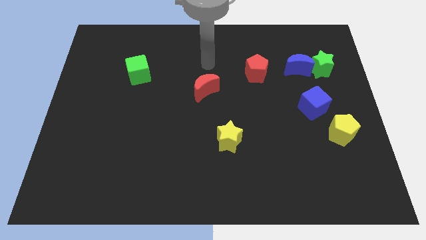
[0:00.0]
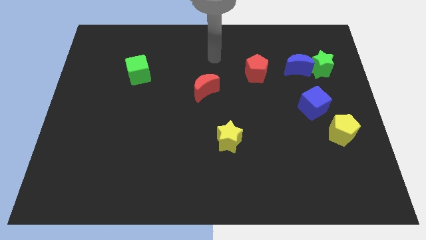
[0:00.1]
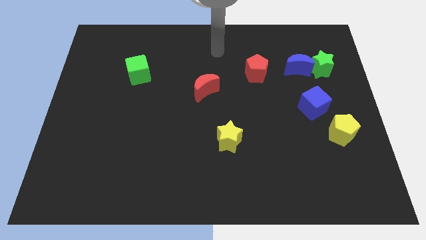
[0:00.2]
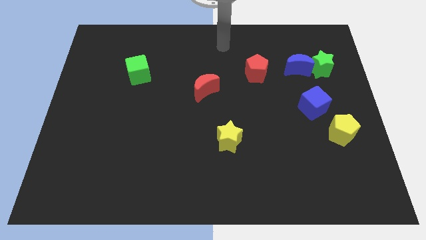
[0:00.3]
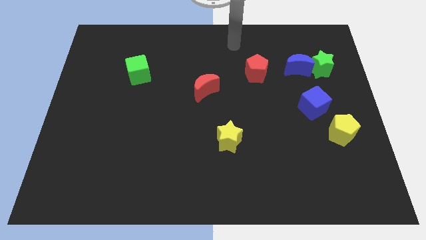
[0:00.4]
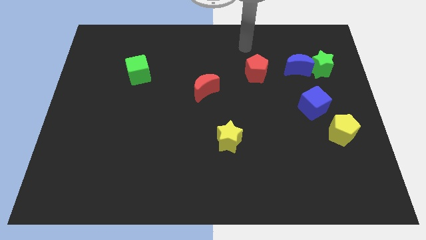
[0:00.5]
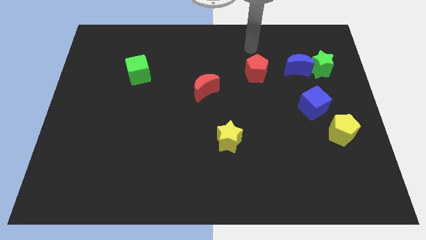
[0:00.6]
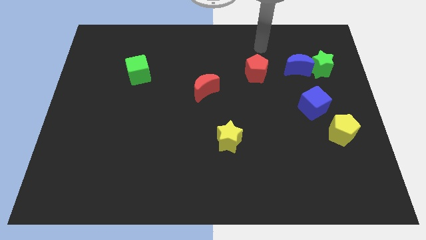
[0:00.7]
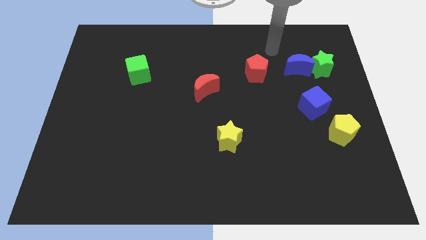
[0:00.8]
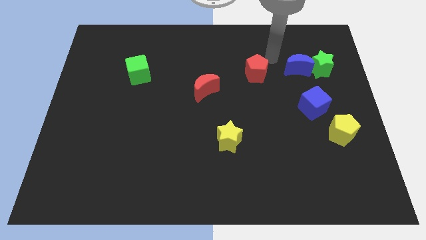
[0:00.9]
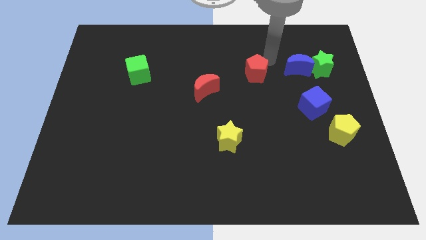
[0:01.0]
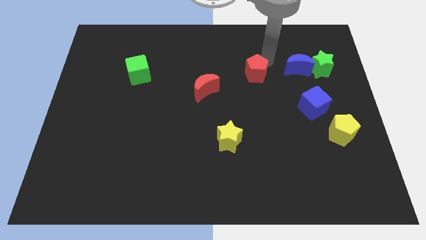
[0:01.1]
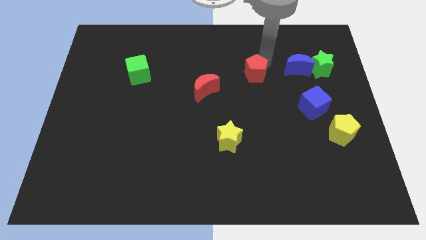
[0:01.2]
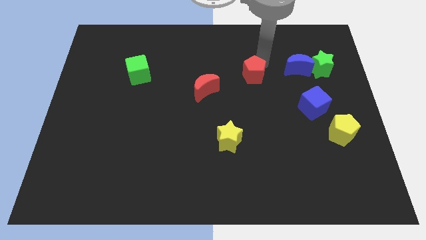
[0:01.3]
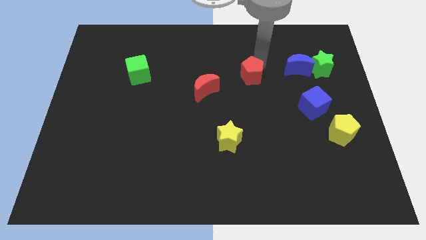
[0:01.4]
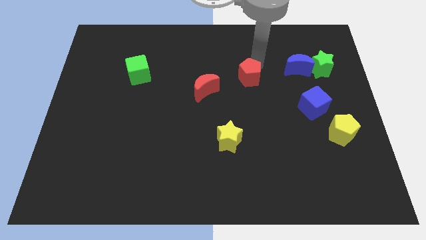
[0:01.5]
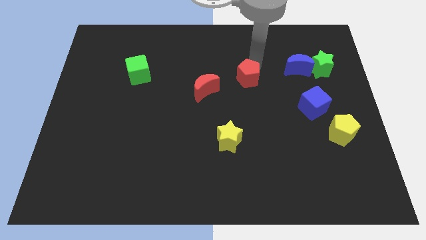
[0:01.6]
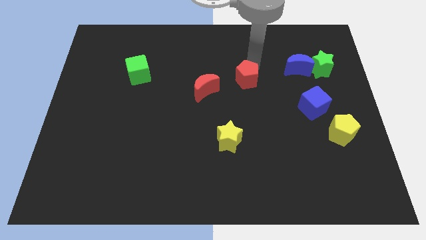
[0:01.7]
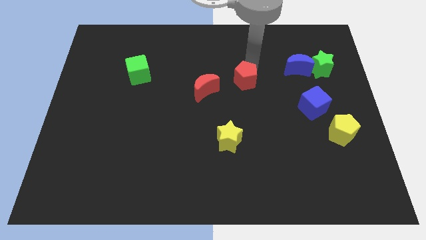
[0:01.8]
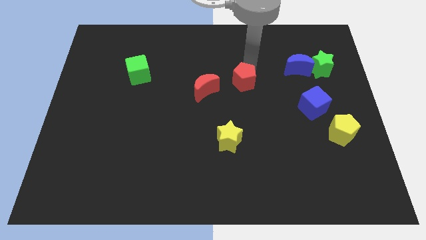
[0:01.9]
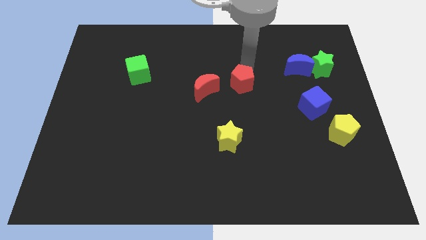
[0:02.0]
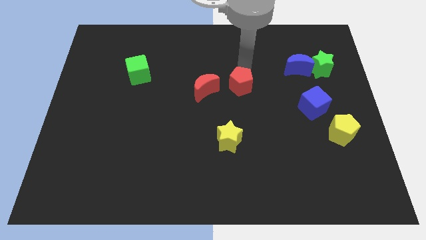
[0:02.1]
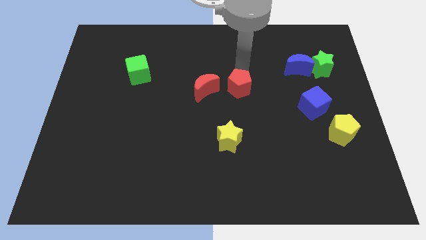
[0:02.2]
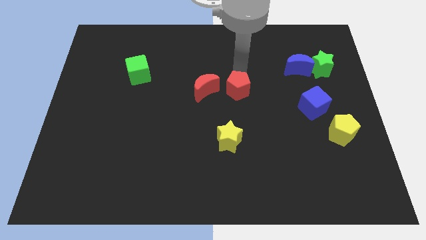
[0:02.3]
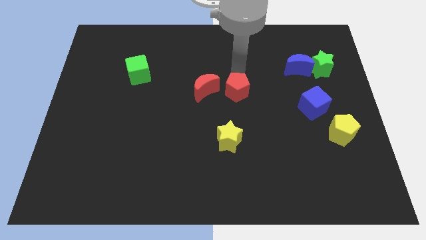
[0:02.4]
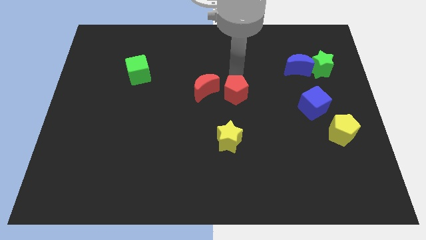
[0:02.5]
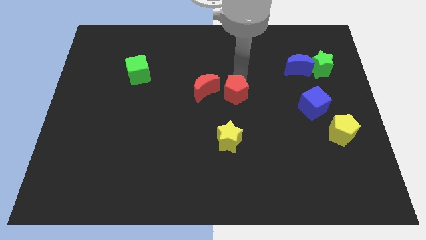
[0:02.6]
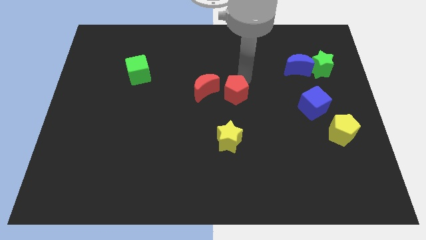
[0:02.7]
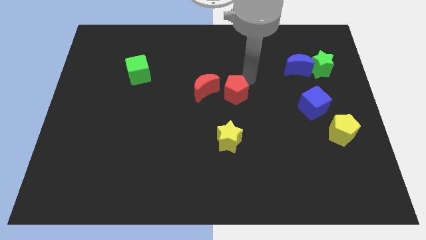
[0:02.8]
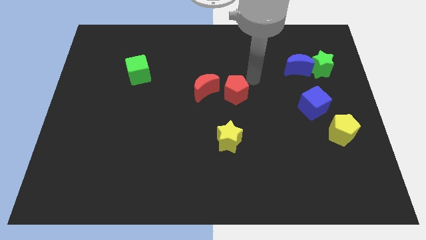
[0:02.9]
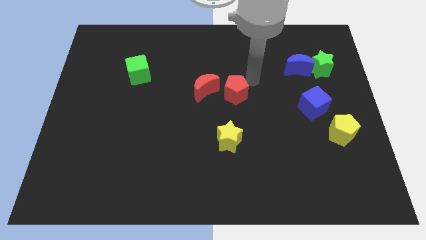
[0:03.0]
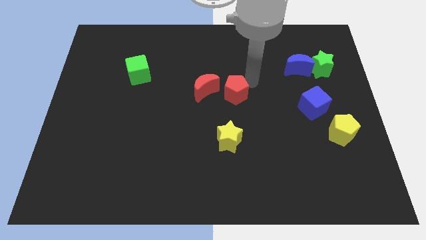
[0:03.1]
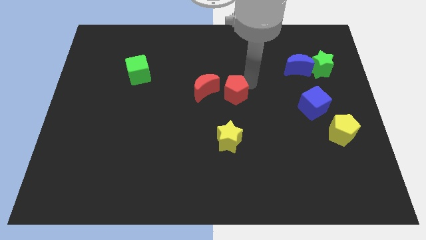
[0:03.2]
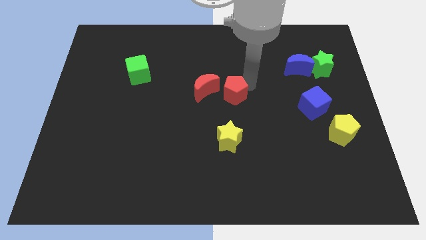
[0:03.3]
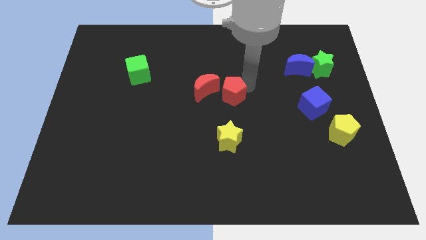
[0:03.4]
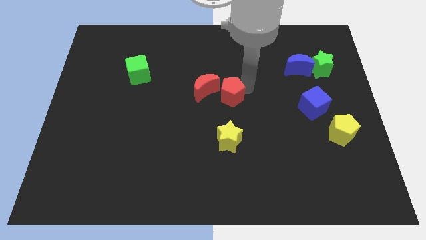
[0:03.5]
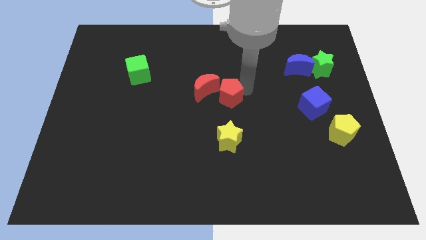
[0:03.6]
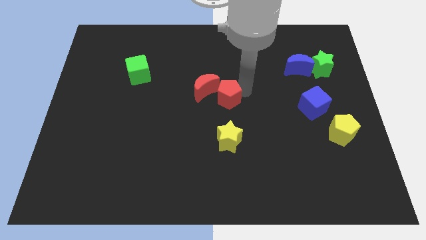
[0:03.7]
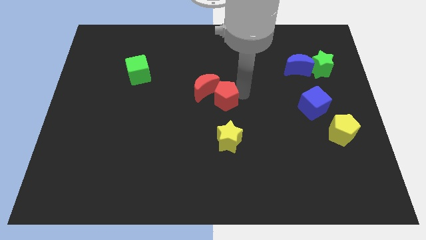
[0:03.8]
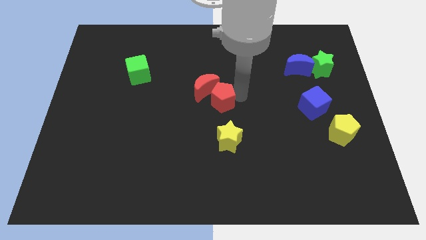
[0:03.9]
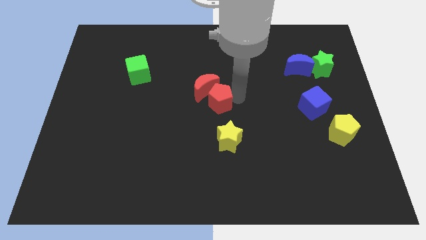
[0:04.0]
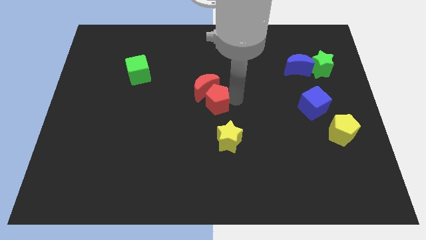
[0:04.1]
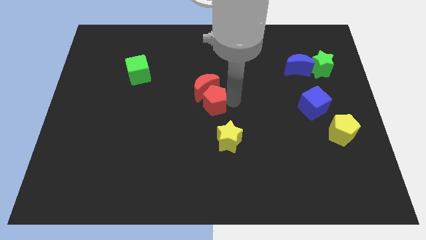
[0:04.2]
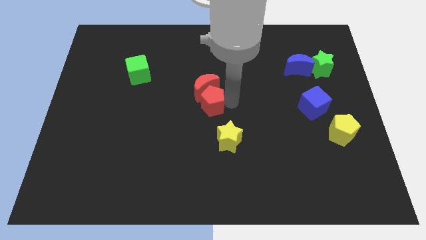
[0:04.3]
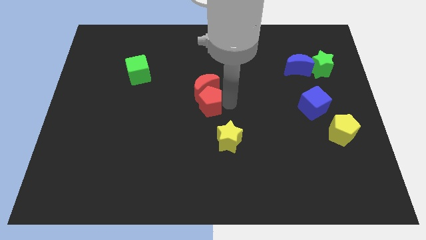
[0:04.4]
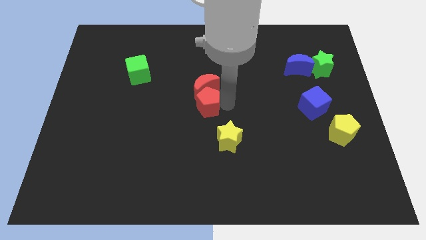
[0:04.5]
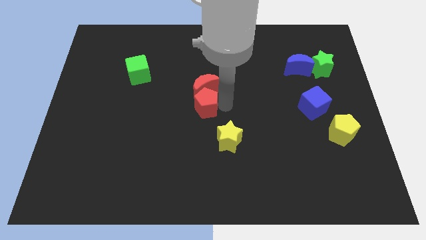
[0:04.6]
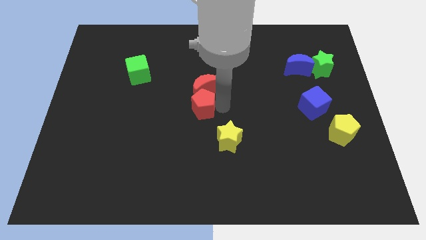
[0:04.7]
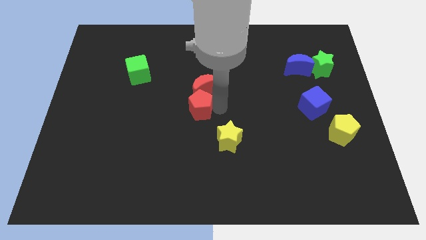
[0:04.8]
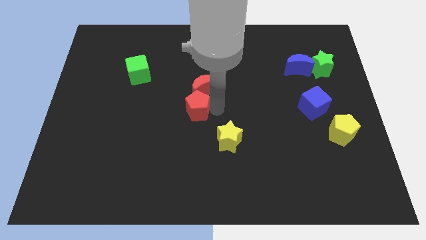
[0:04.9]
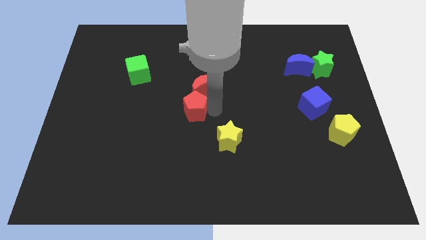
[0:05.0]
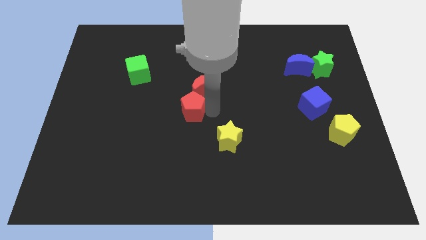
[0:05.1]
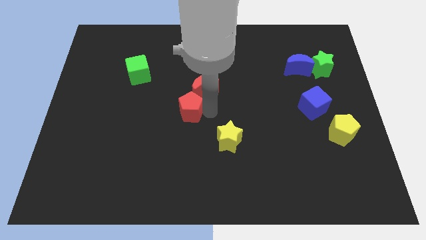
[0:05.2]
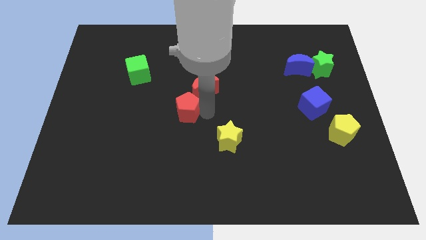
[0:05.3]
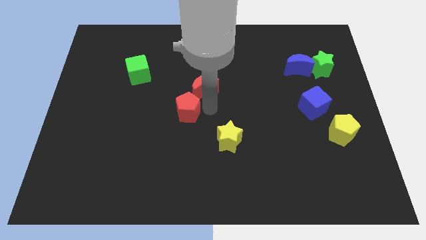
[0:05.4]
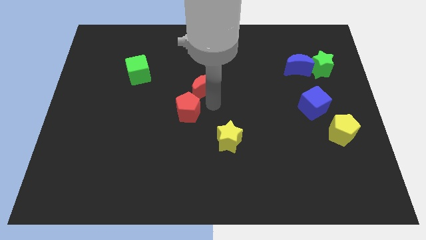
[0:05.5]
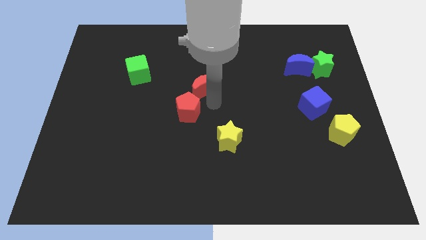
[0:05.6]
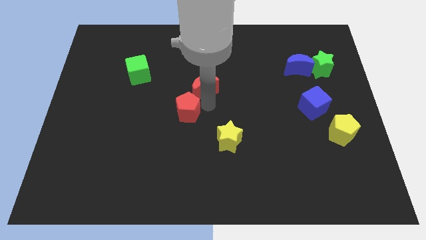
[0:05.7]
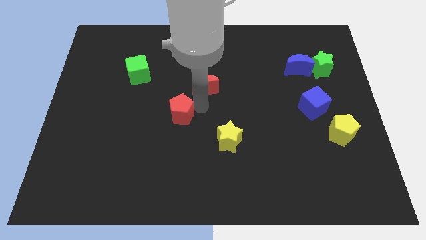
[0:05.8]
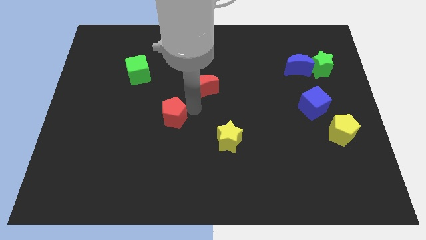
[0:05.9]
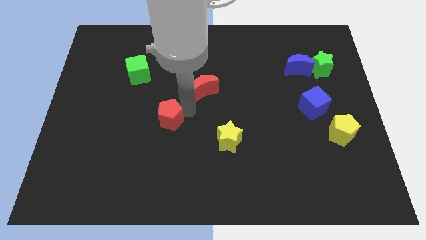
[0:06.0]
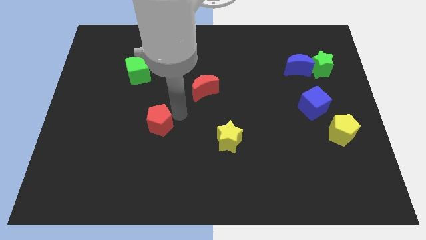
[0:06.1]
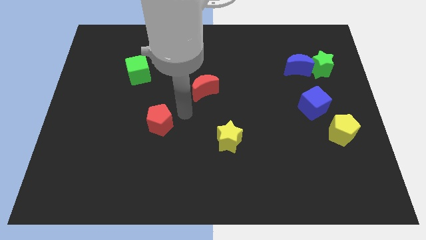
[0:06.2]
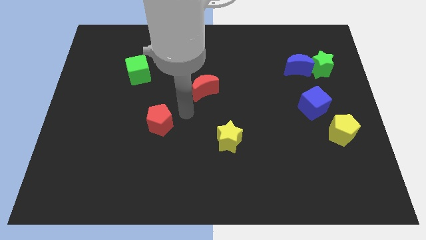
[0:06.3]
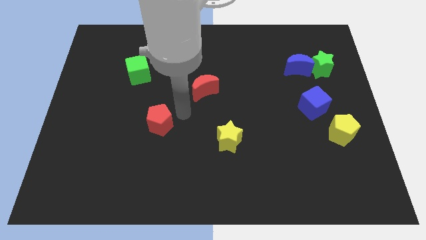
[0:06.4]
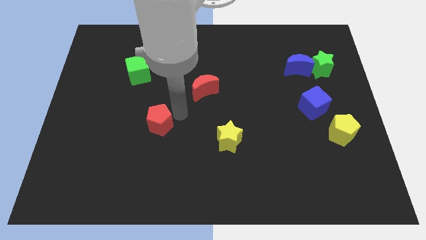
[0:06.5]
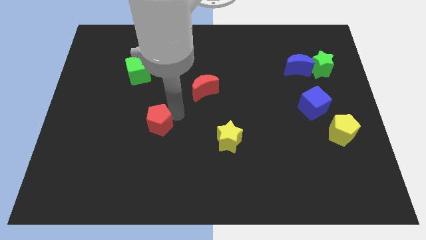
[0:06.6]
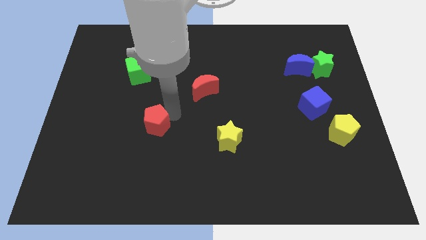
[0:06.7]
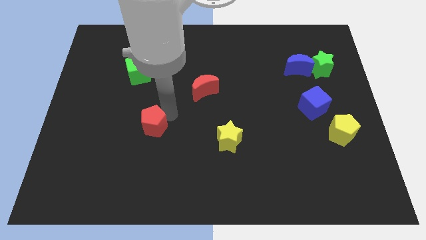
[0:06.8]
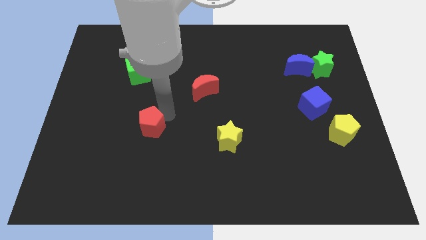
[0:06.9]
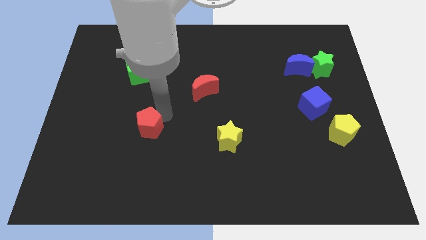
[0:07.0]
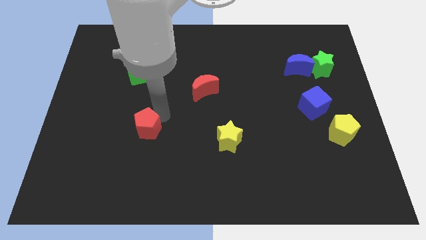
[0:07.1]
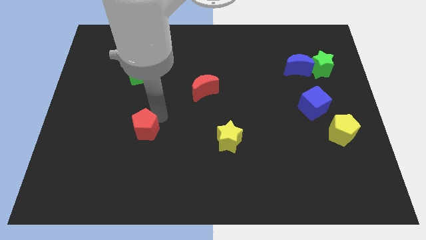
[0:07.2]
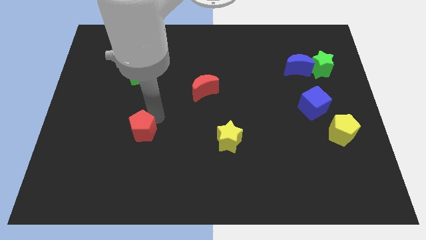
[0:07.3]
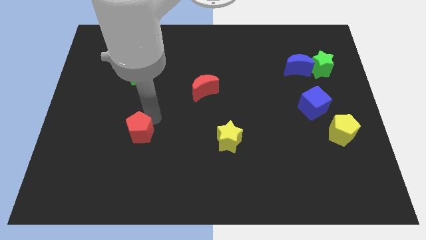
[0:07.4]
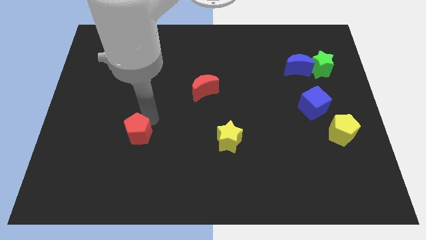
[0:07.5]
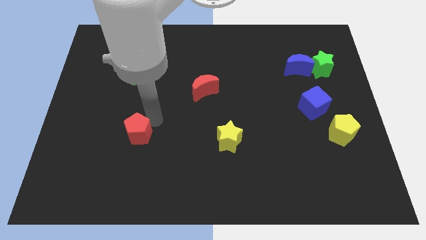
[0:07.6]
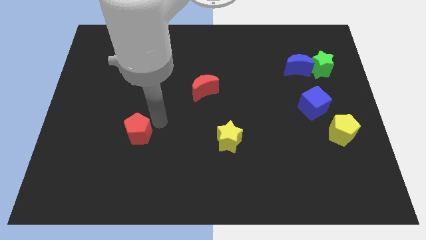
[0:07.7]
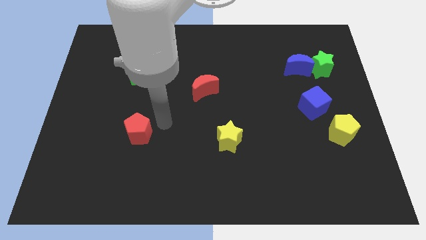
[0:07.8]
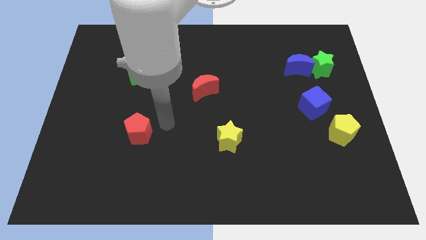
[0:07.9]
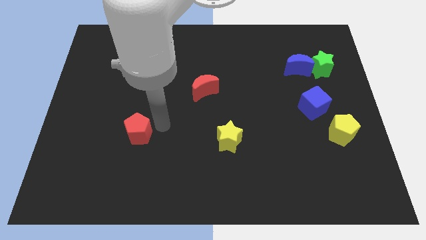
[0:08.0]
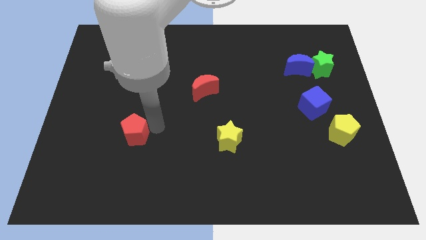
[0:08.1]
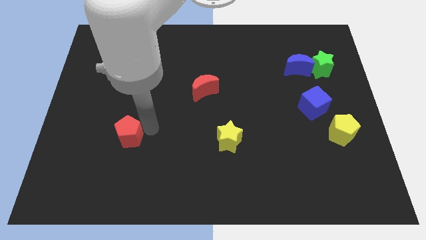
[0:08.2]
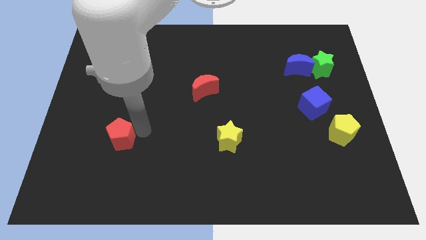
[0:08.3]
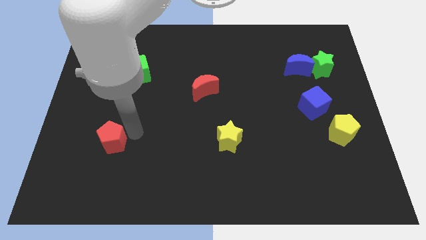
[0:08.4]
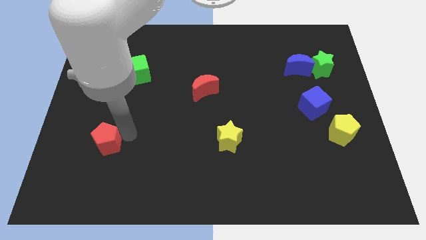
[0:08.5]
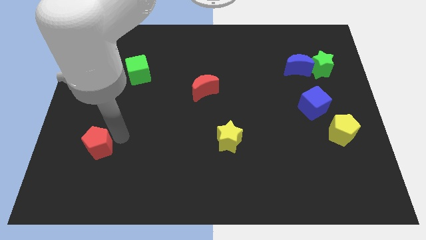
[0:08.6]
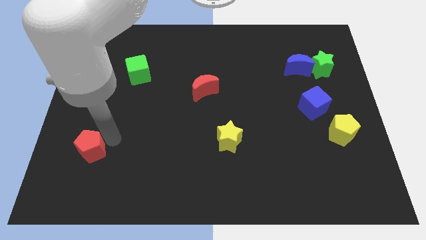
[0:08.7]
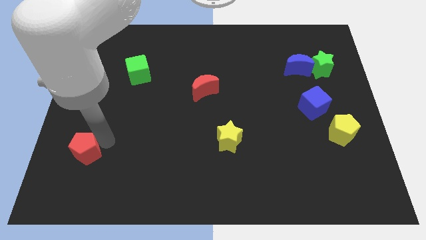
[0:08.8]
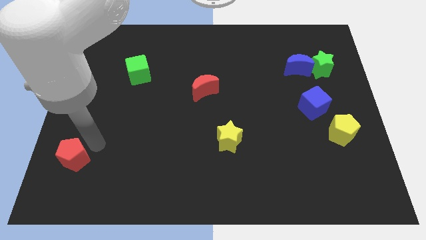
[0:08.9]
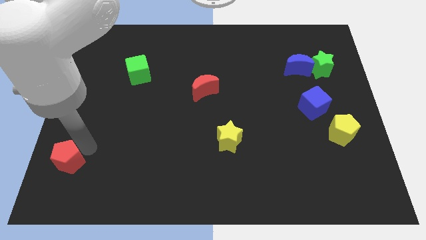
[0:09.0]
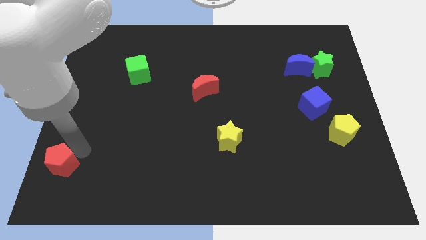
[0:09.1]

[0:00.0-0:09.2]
push the red pentagon to the bottom left of the board
